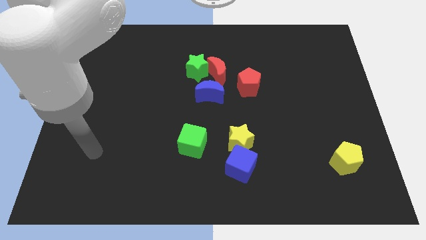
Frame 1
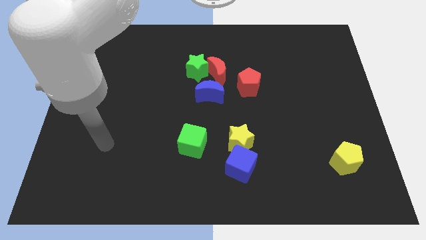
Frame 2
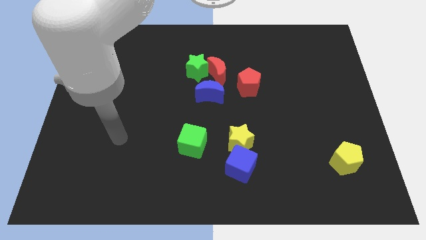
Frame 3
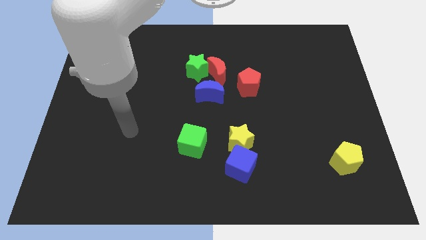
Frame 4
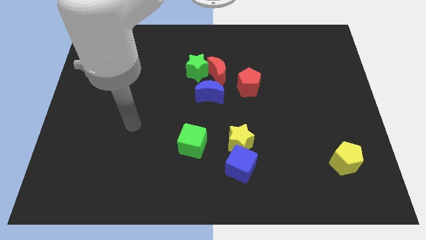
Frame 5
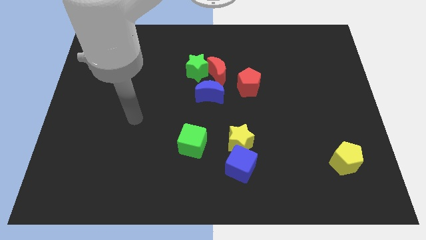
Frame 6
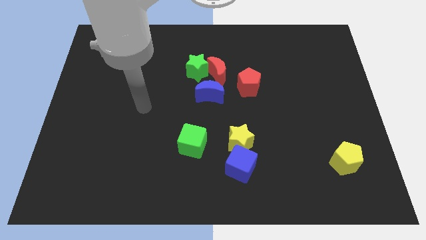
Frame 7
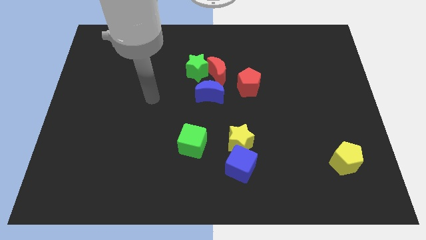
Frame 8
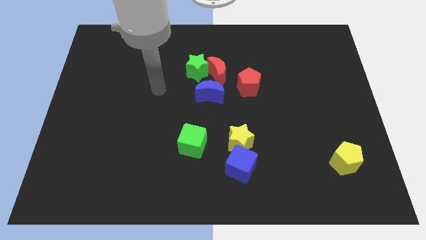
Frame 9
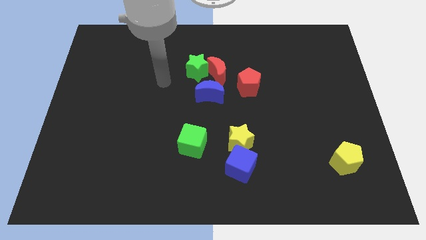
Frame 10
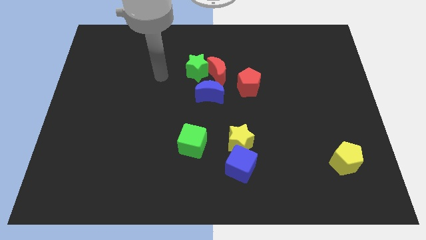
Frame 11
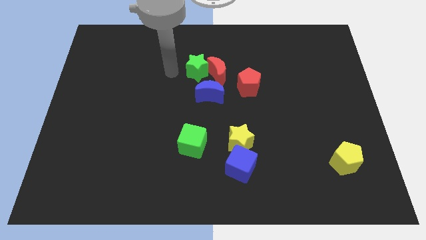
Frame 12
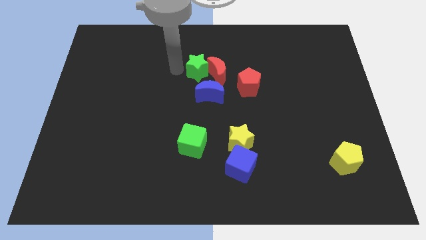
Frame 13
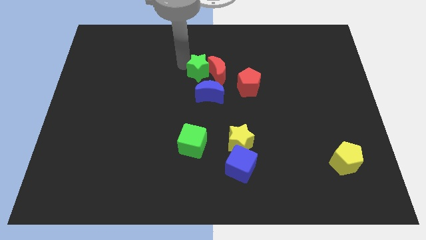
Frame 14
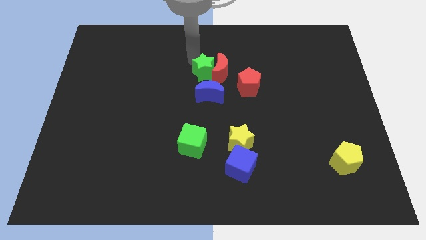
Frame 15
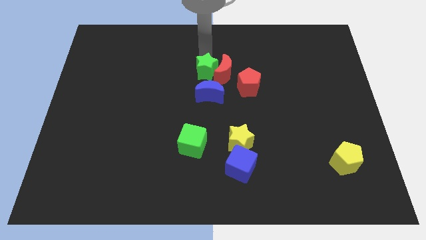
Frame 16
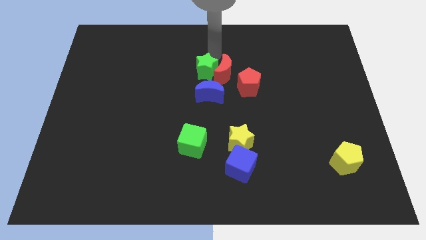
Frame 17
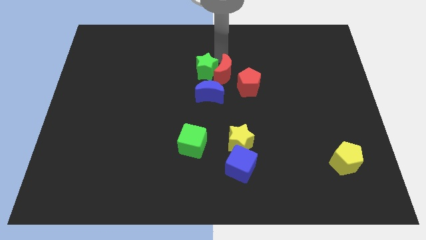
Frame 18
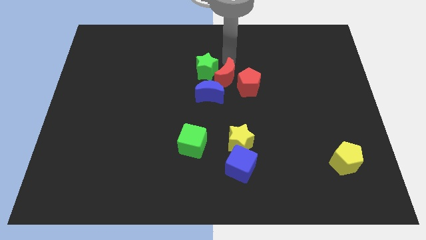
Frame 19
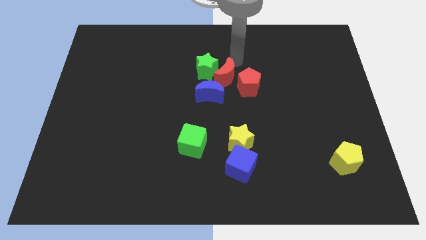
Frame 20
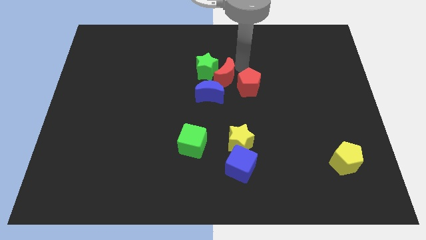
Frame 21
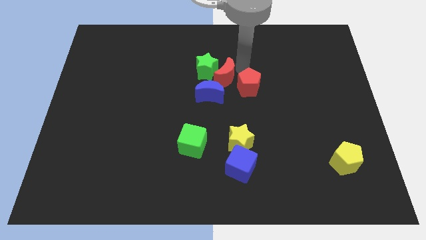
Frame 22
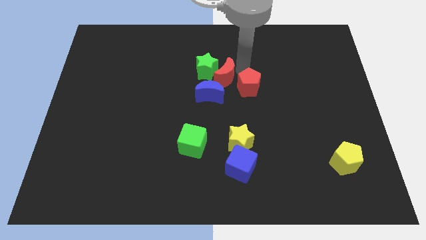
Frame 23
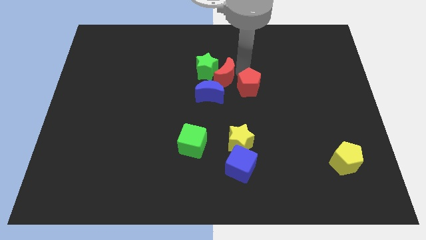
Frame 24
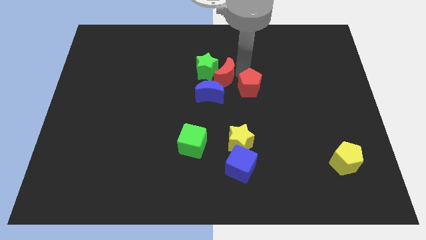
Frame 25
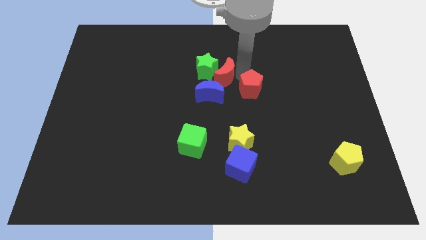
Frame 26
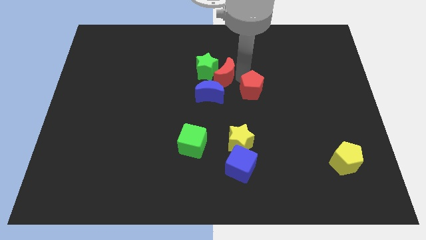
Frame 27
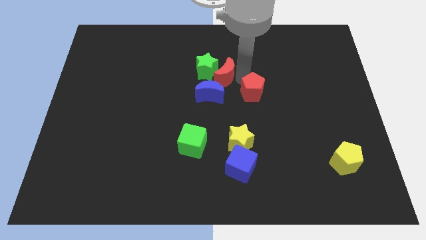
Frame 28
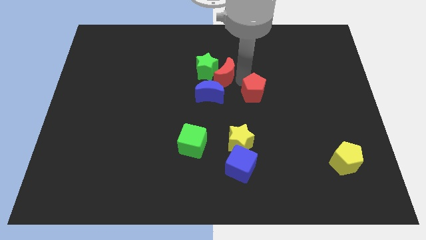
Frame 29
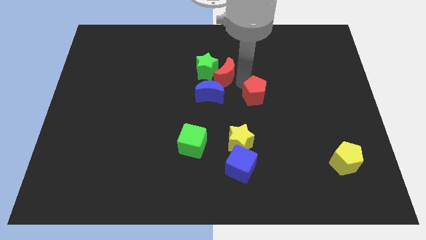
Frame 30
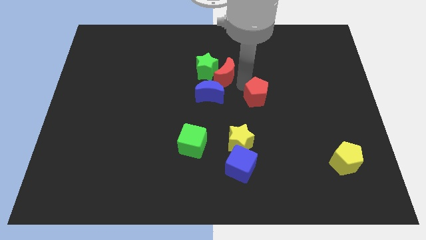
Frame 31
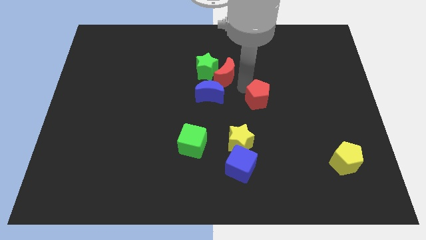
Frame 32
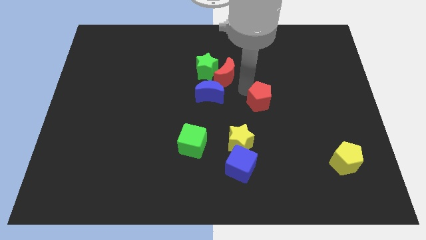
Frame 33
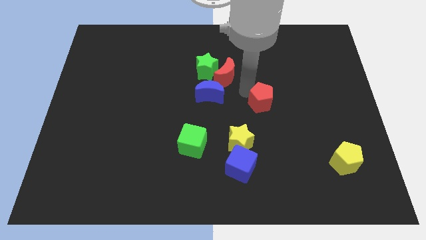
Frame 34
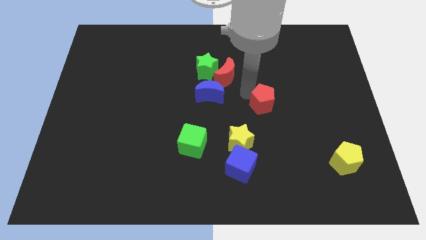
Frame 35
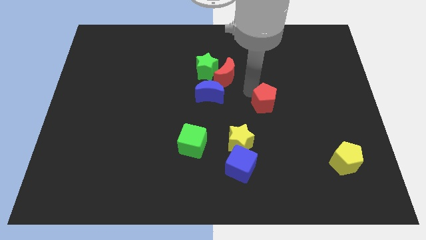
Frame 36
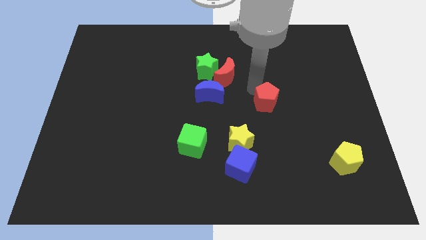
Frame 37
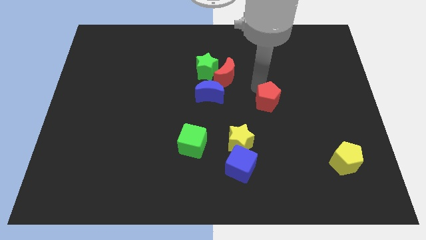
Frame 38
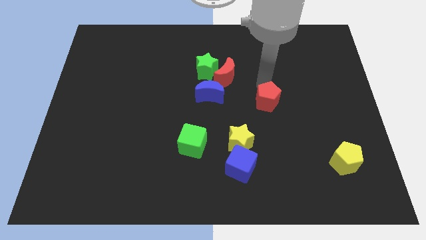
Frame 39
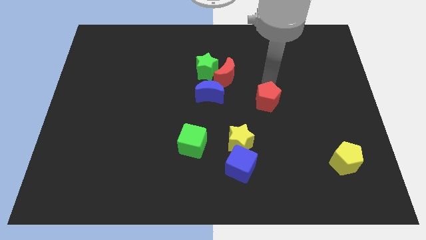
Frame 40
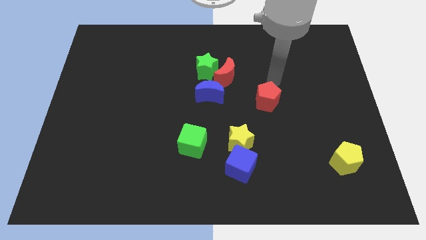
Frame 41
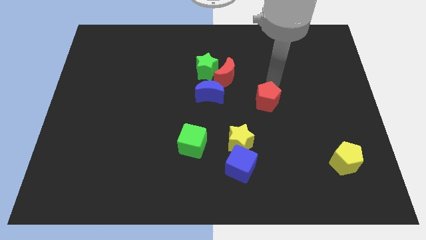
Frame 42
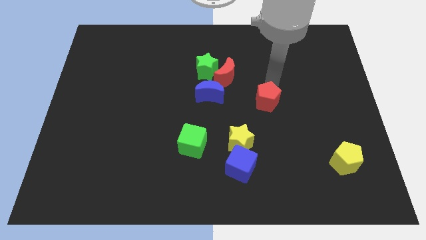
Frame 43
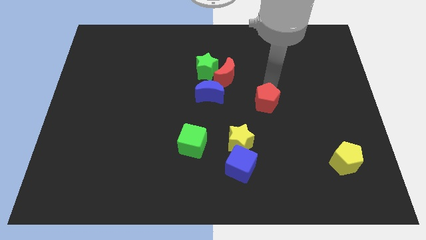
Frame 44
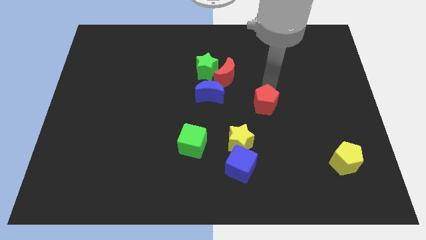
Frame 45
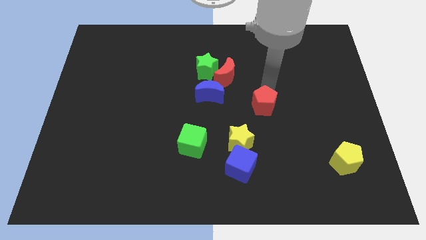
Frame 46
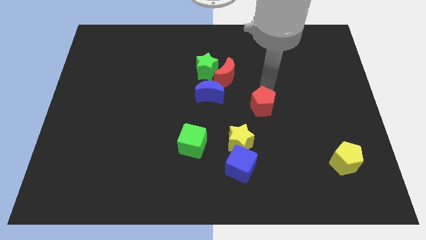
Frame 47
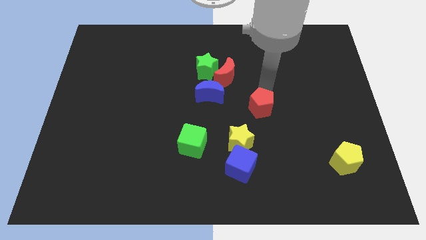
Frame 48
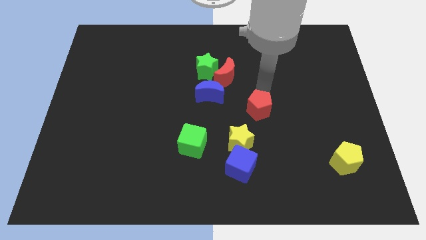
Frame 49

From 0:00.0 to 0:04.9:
slightly slide the red pentagon downwards

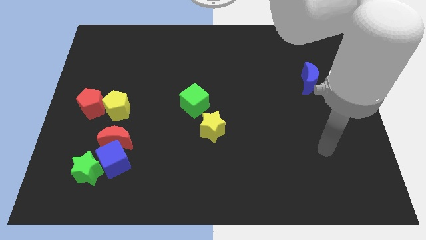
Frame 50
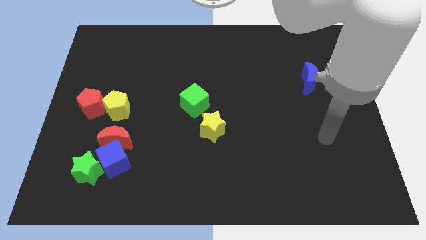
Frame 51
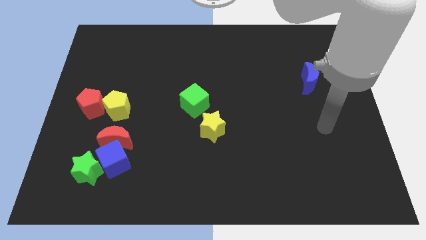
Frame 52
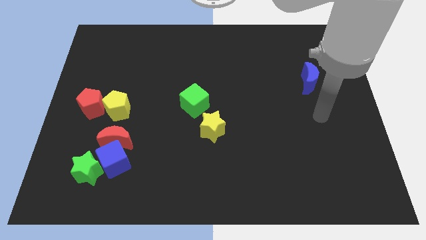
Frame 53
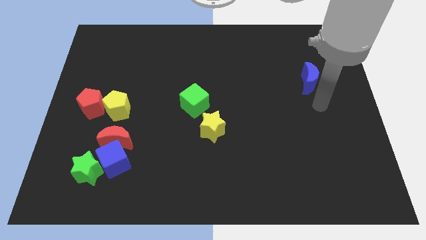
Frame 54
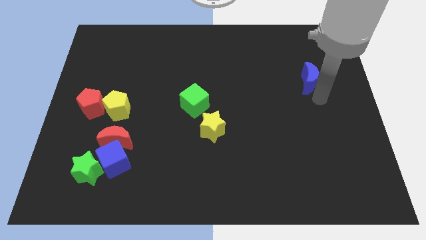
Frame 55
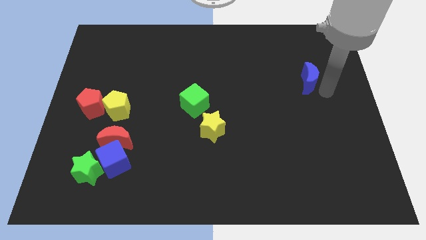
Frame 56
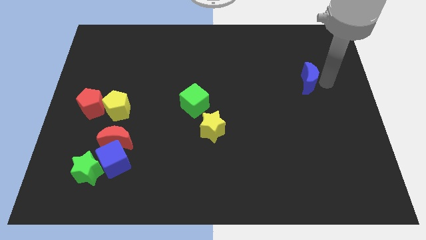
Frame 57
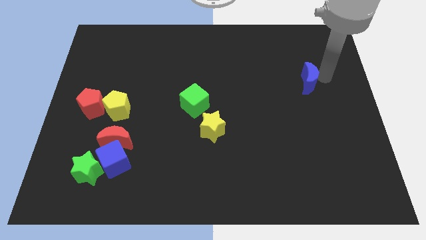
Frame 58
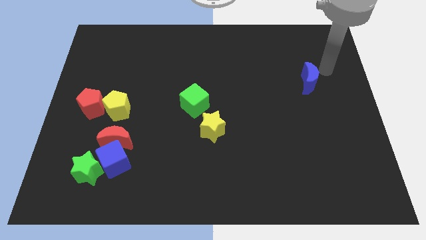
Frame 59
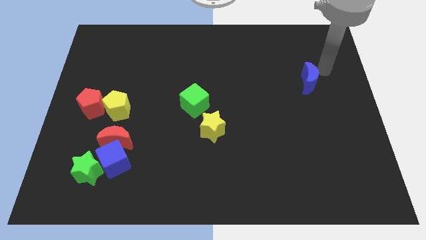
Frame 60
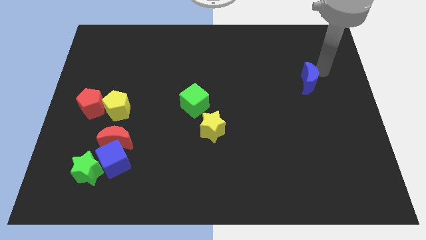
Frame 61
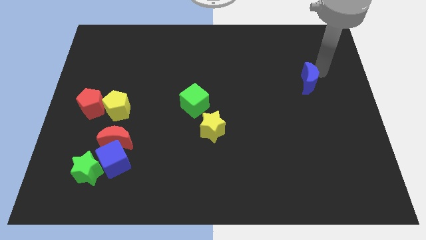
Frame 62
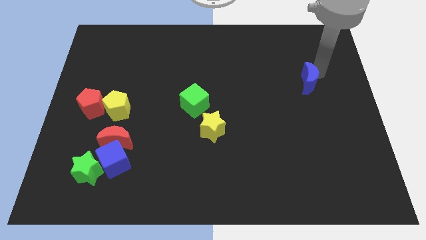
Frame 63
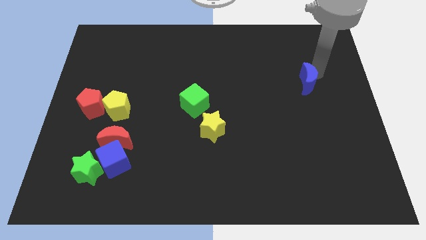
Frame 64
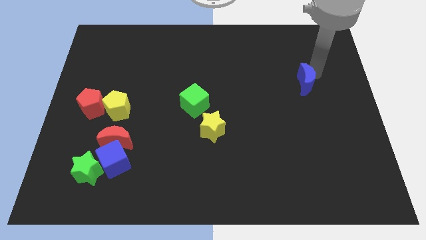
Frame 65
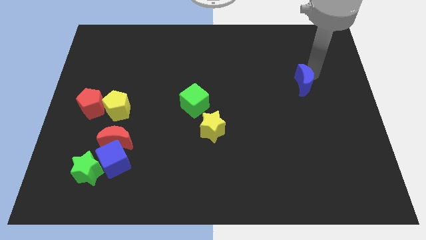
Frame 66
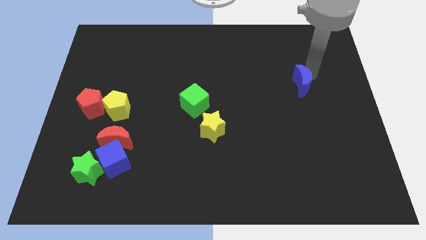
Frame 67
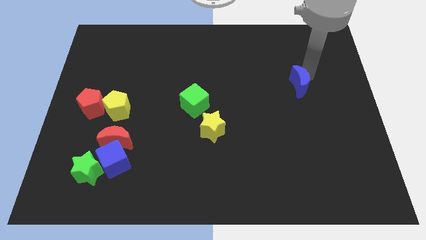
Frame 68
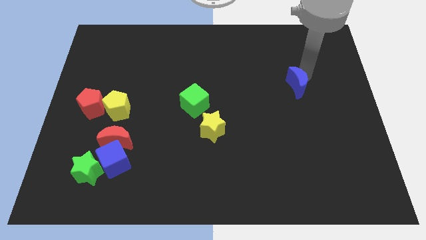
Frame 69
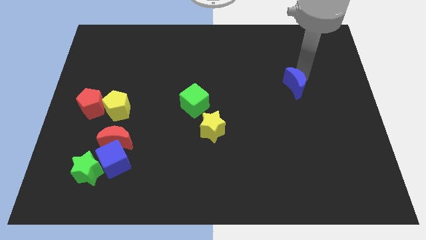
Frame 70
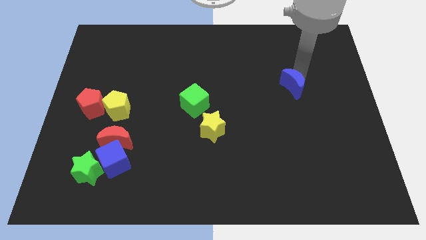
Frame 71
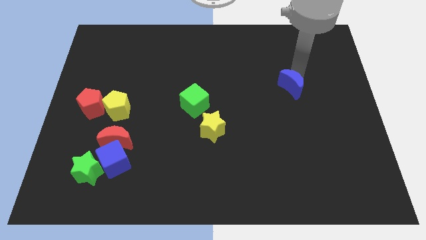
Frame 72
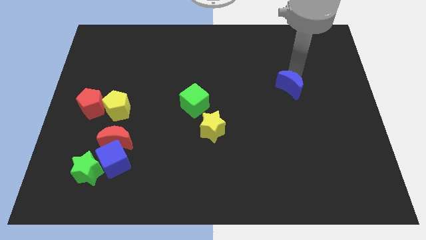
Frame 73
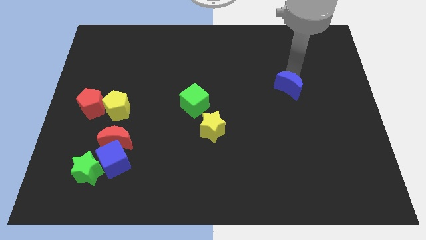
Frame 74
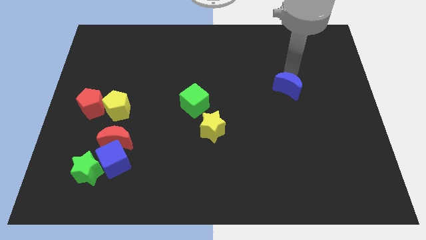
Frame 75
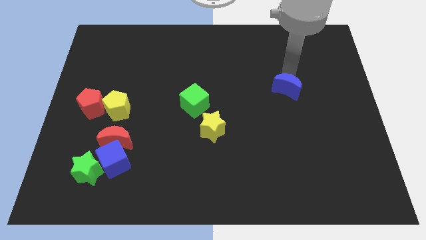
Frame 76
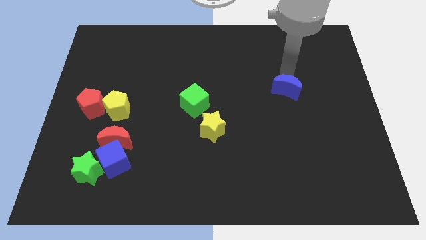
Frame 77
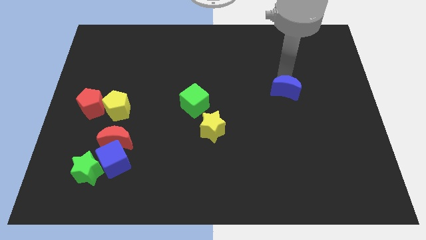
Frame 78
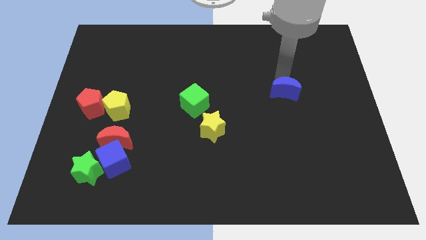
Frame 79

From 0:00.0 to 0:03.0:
push the blue moon a little bit downwards and then left

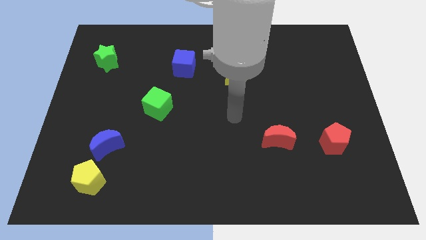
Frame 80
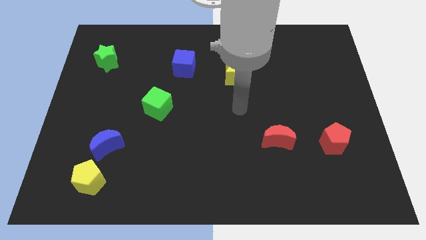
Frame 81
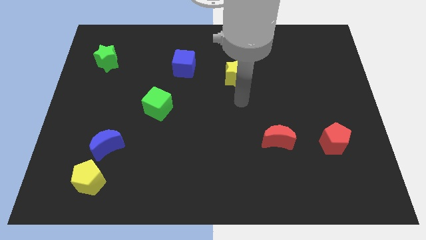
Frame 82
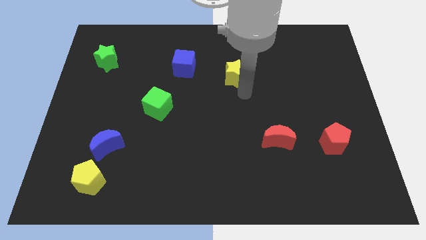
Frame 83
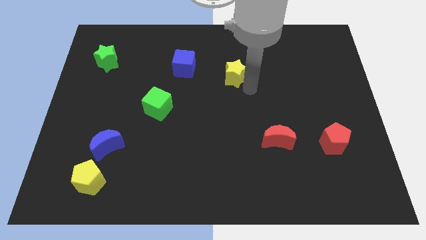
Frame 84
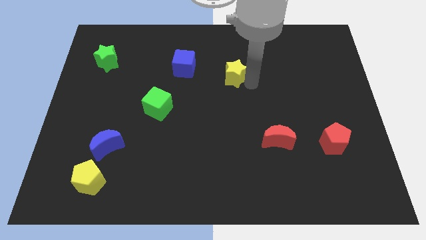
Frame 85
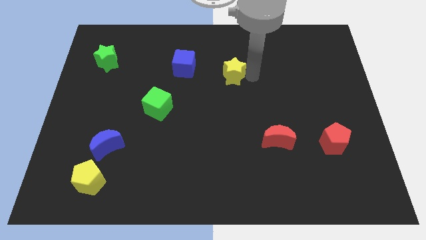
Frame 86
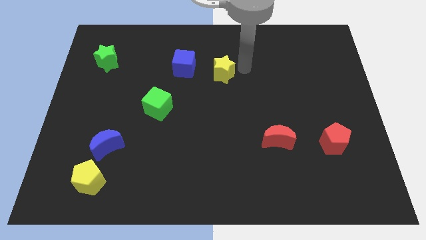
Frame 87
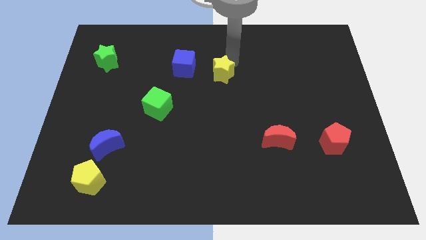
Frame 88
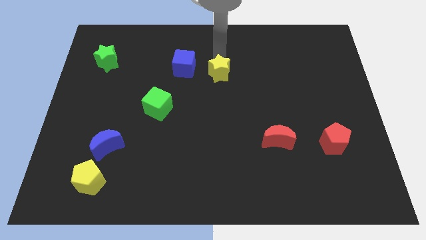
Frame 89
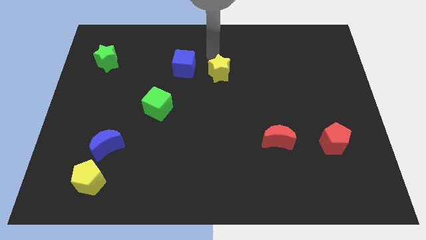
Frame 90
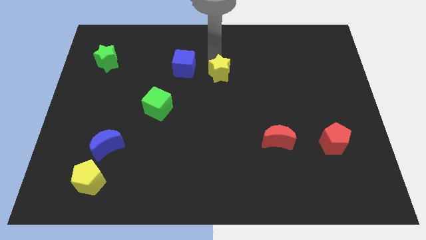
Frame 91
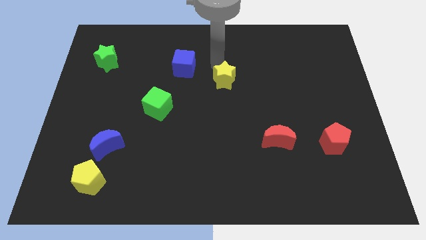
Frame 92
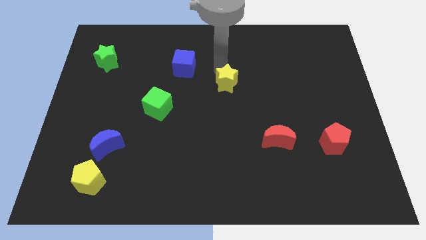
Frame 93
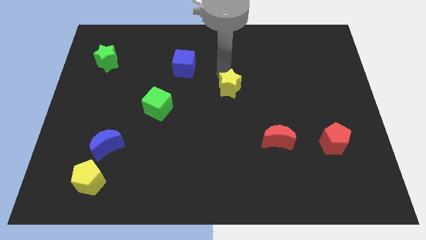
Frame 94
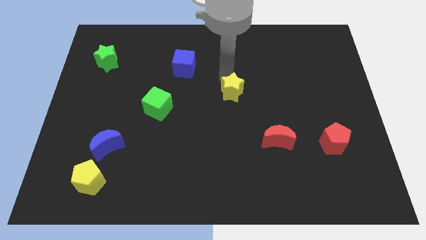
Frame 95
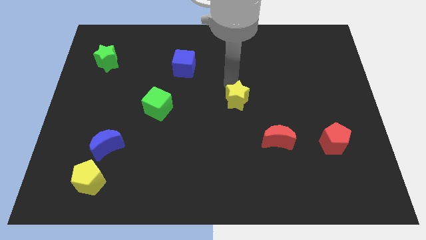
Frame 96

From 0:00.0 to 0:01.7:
move the yellow star downwards a little
